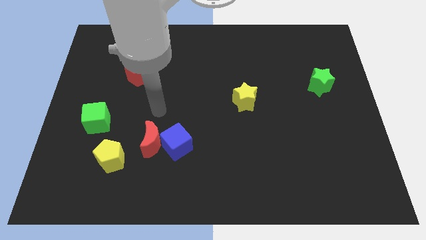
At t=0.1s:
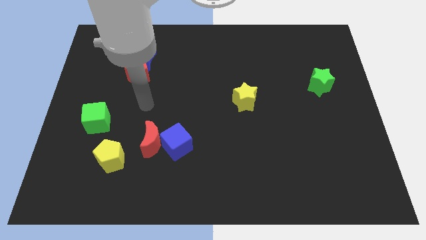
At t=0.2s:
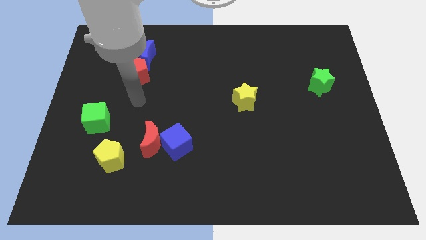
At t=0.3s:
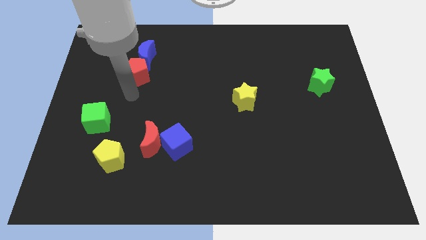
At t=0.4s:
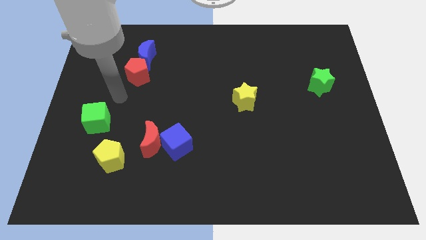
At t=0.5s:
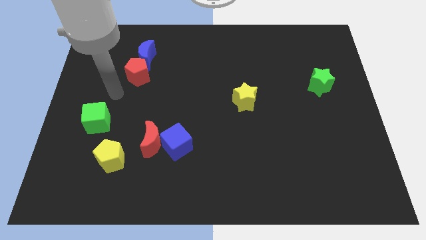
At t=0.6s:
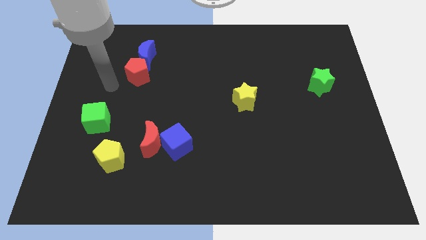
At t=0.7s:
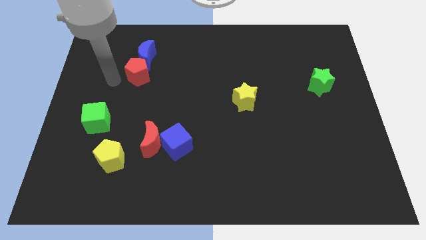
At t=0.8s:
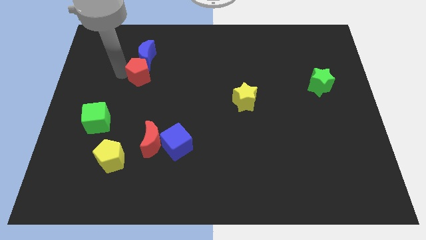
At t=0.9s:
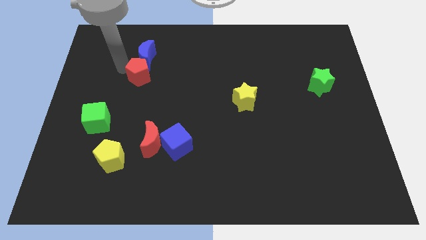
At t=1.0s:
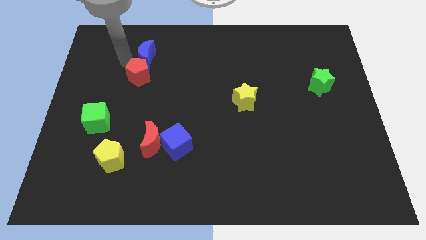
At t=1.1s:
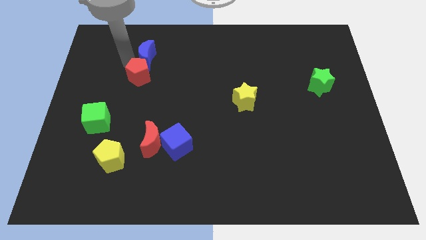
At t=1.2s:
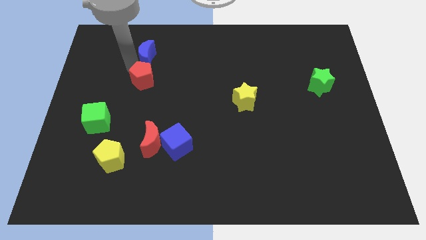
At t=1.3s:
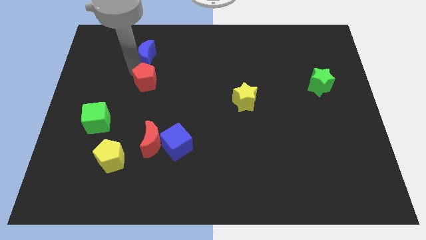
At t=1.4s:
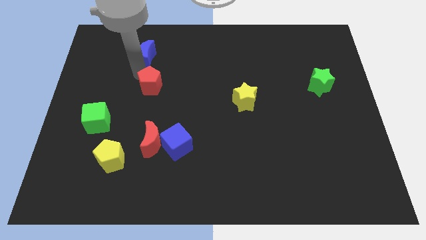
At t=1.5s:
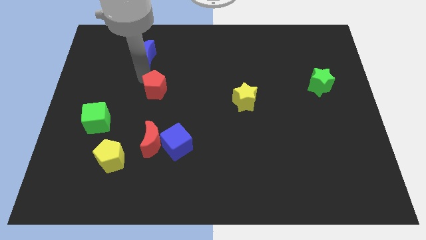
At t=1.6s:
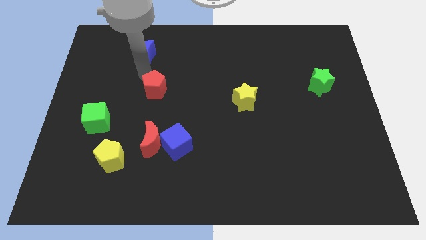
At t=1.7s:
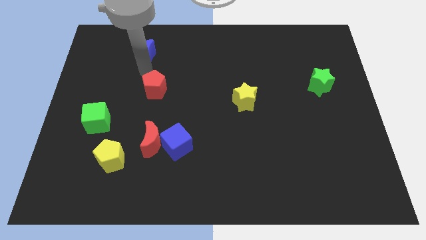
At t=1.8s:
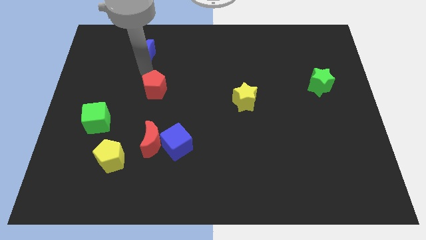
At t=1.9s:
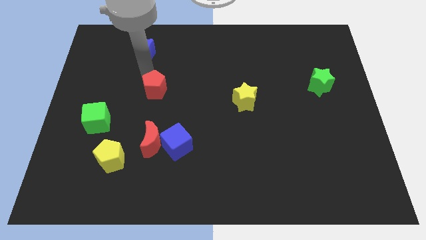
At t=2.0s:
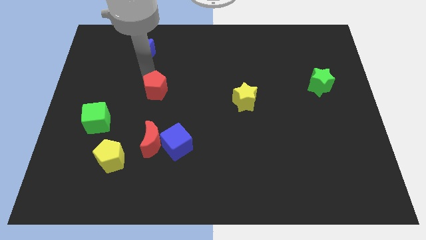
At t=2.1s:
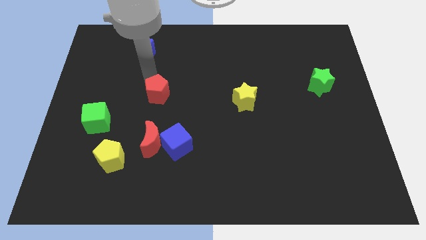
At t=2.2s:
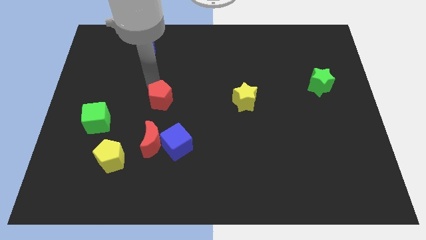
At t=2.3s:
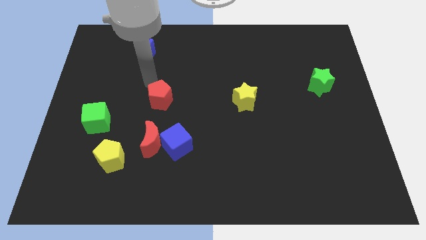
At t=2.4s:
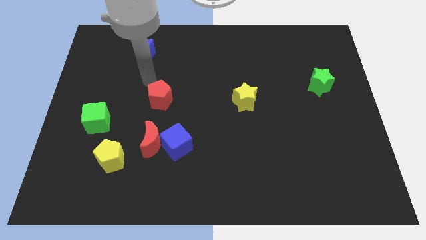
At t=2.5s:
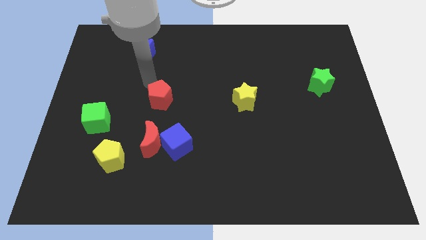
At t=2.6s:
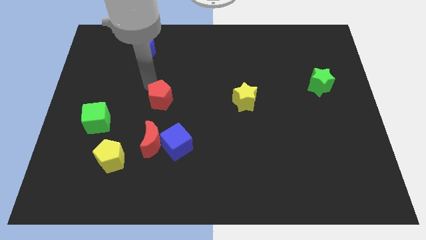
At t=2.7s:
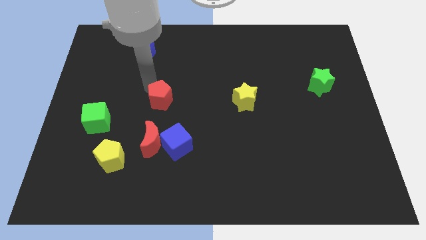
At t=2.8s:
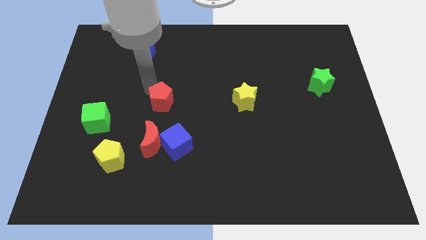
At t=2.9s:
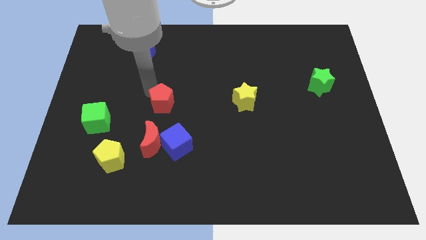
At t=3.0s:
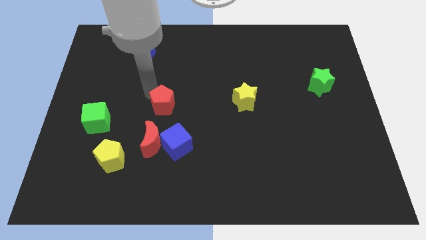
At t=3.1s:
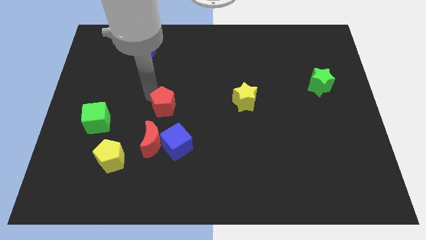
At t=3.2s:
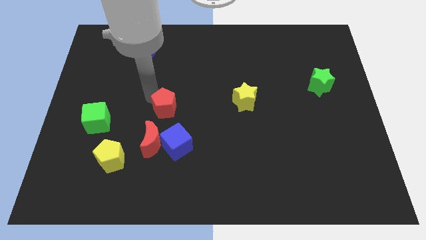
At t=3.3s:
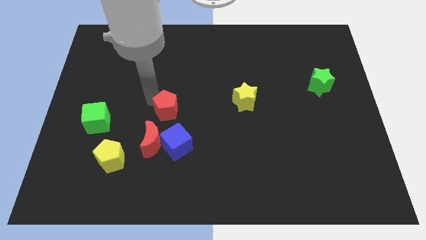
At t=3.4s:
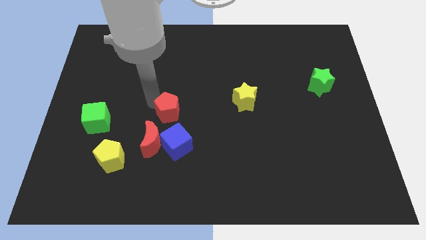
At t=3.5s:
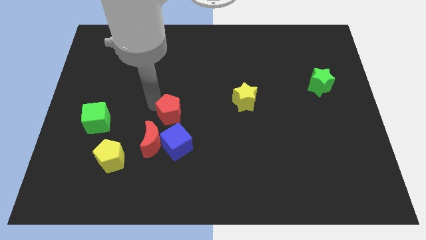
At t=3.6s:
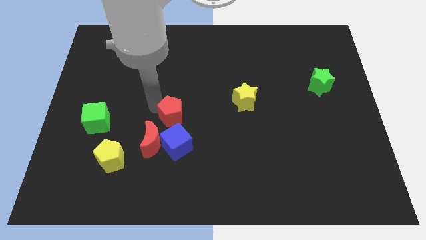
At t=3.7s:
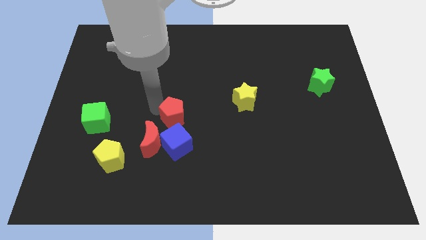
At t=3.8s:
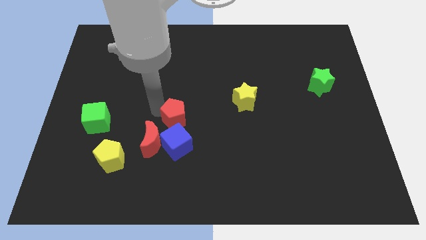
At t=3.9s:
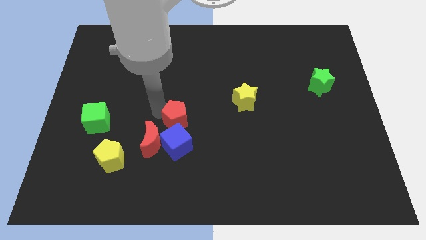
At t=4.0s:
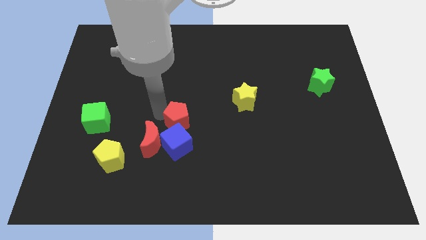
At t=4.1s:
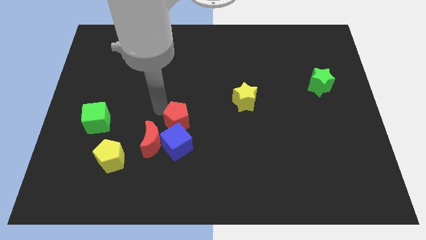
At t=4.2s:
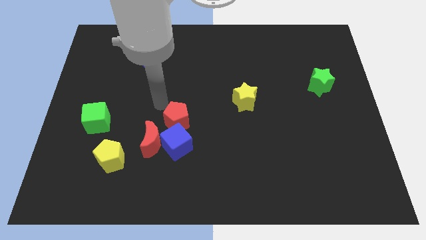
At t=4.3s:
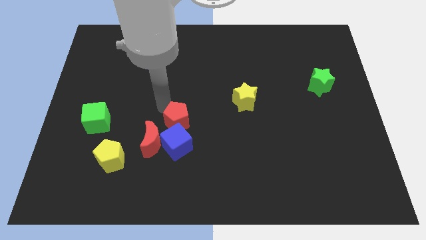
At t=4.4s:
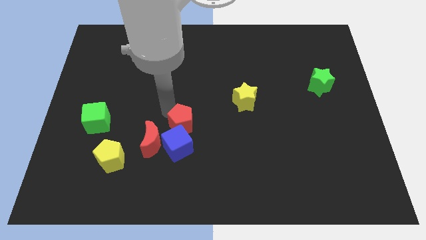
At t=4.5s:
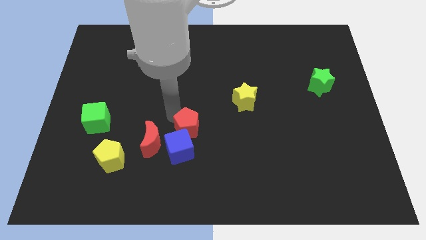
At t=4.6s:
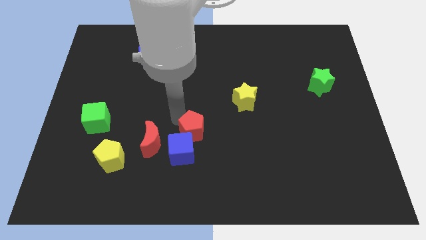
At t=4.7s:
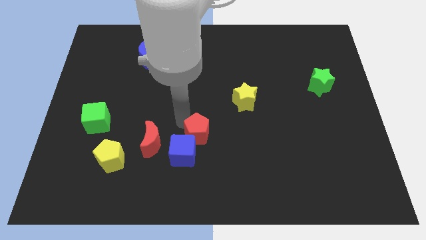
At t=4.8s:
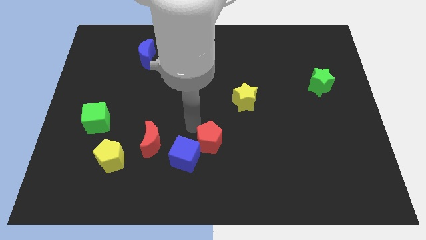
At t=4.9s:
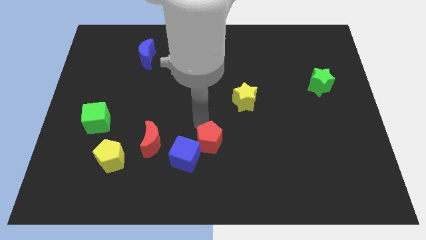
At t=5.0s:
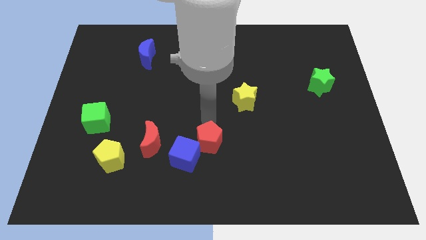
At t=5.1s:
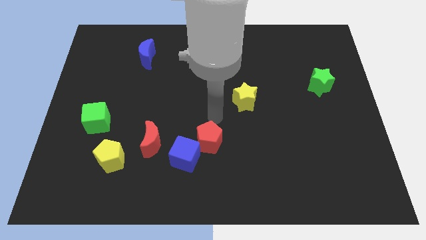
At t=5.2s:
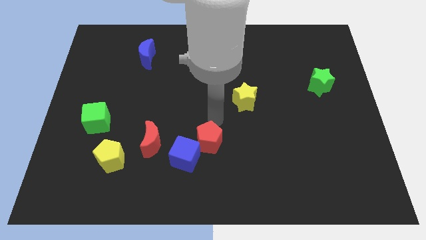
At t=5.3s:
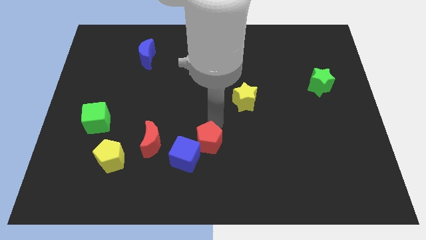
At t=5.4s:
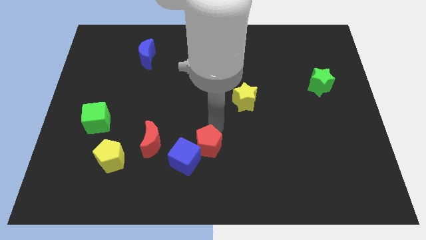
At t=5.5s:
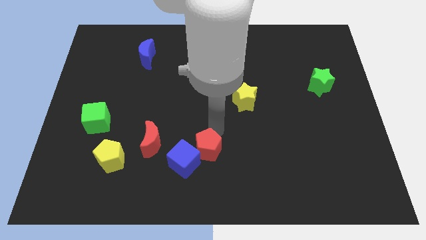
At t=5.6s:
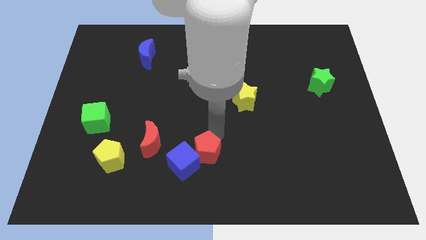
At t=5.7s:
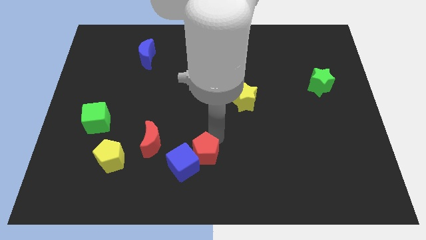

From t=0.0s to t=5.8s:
slide the red pentagon to the bottom
